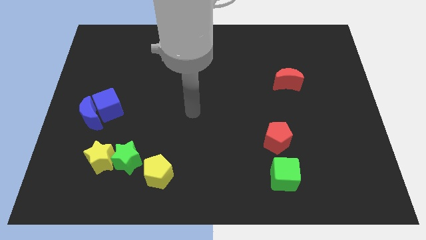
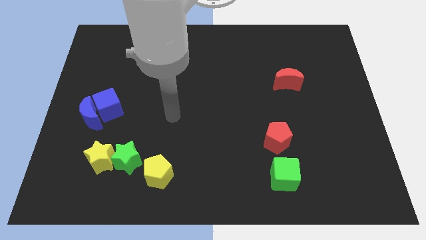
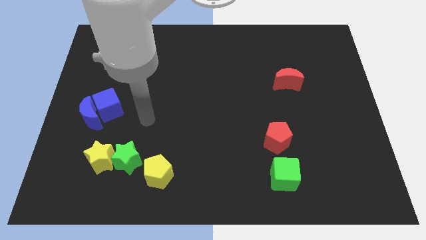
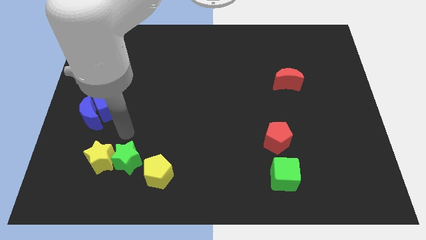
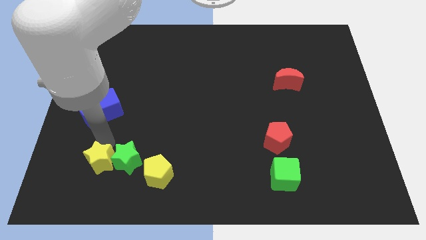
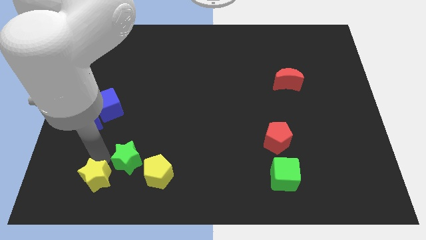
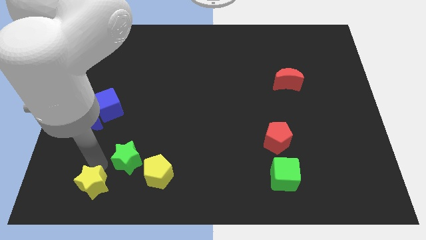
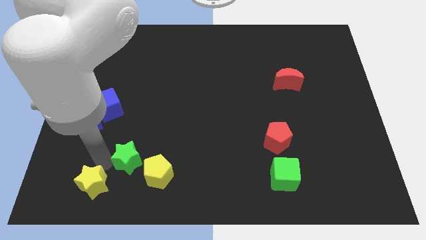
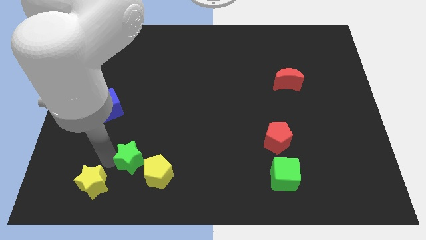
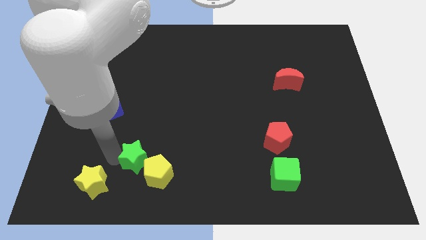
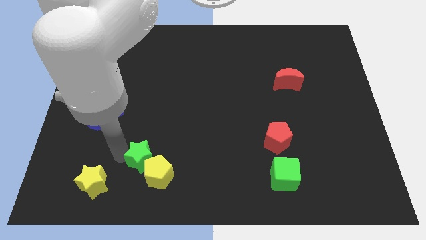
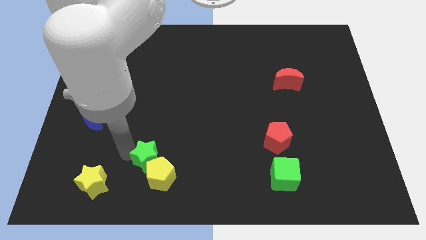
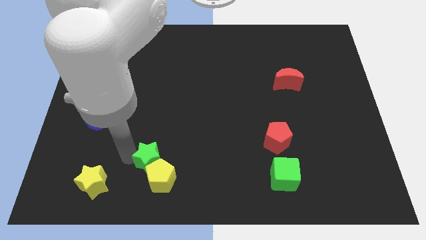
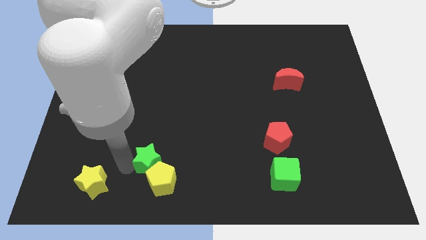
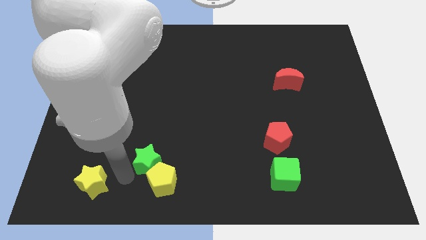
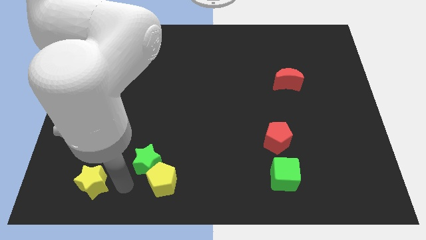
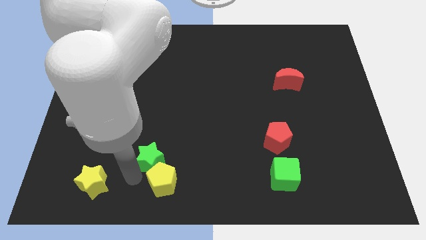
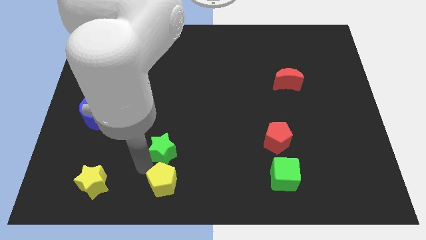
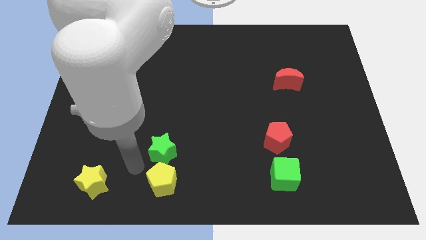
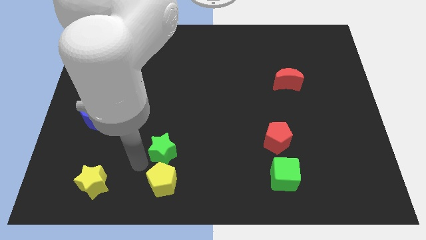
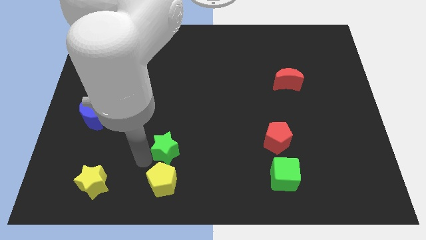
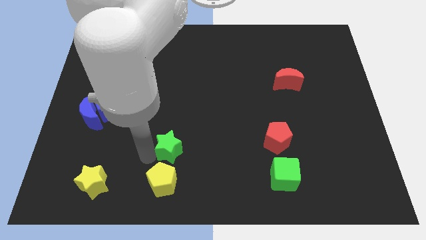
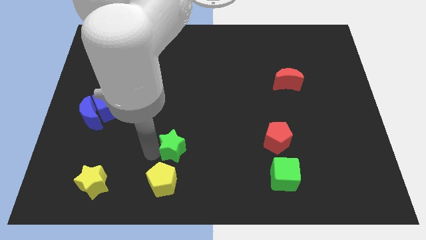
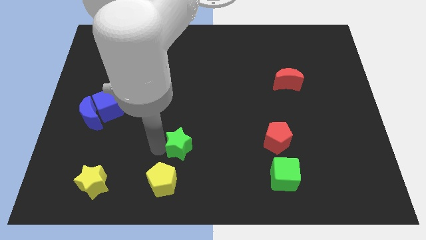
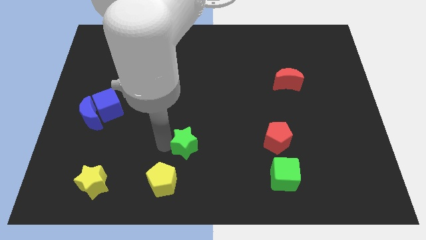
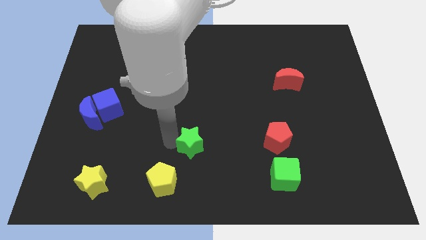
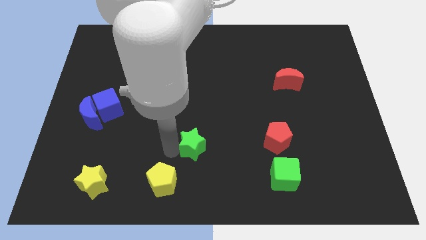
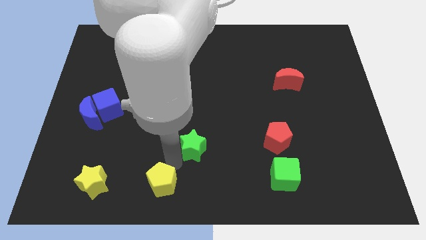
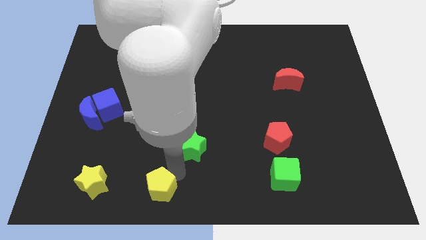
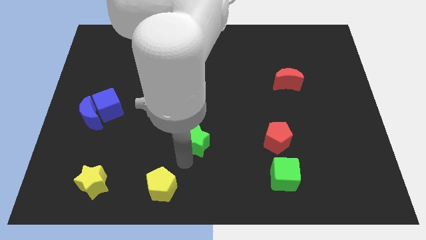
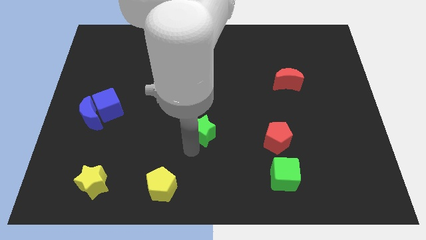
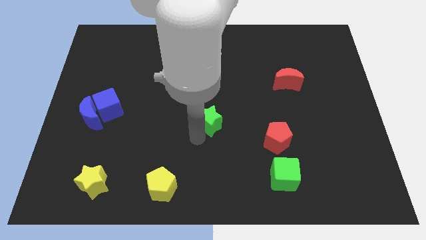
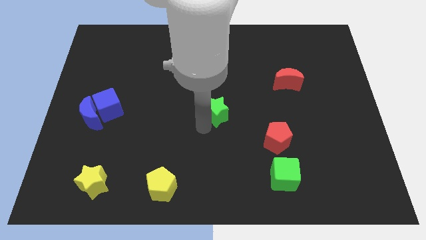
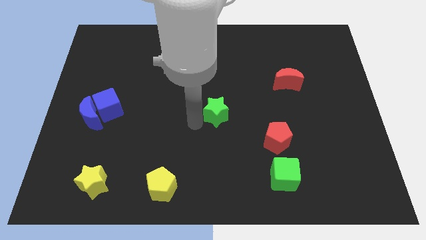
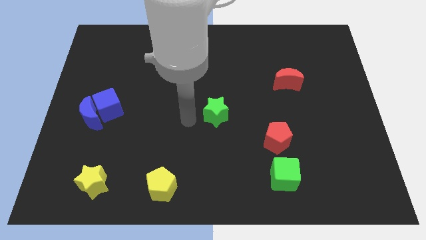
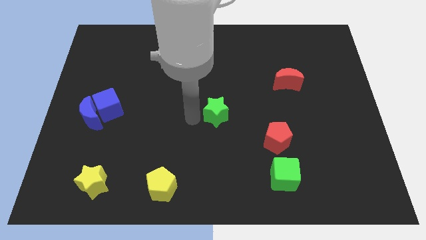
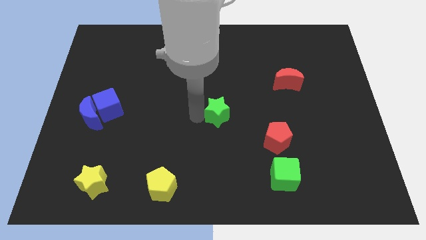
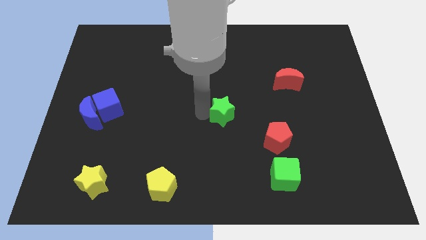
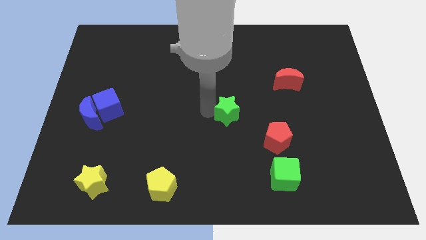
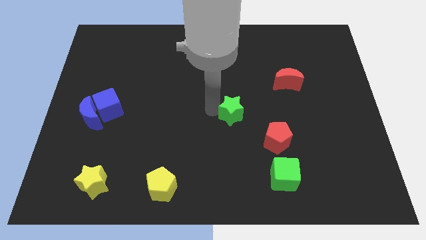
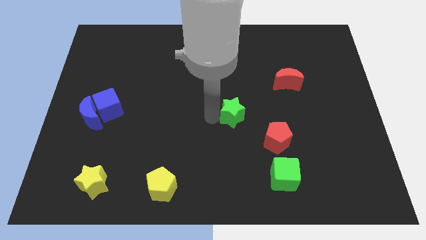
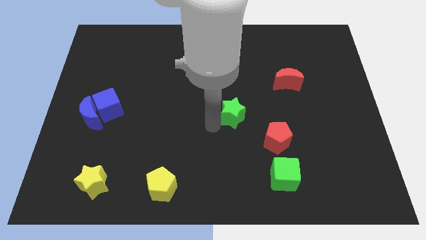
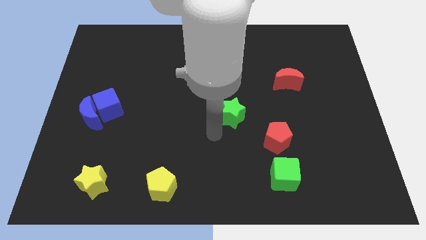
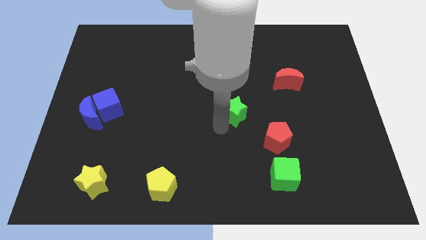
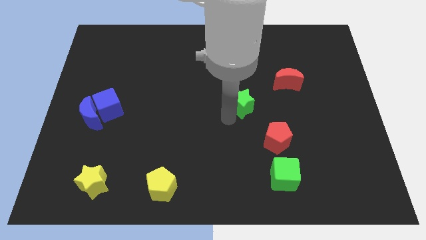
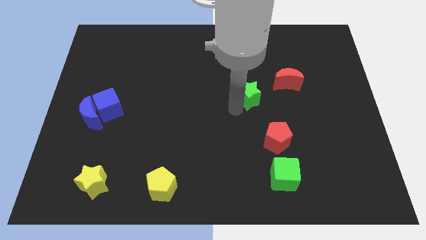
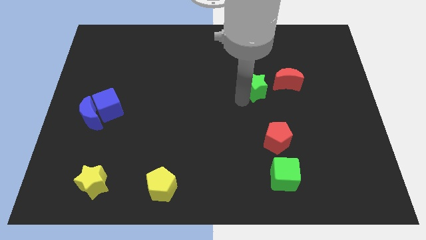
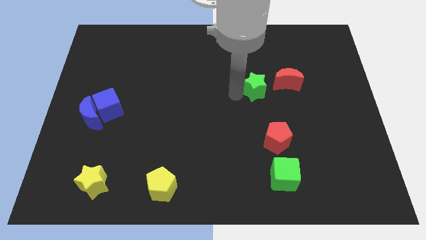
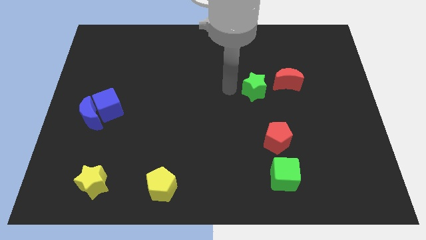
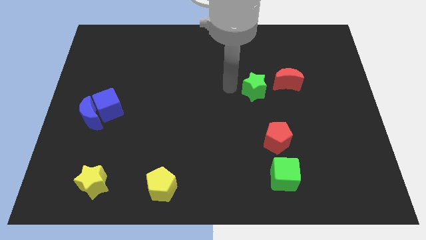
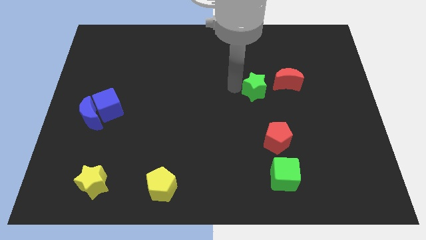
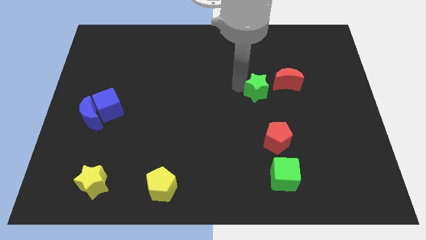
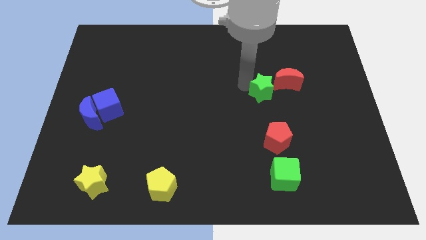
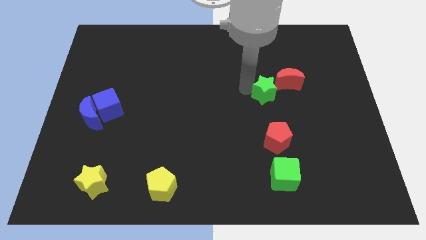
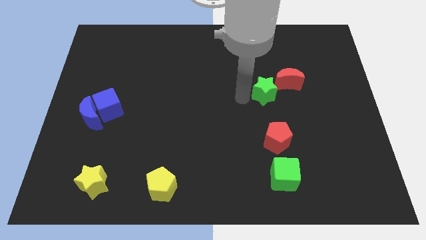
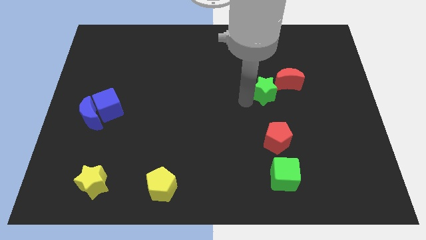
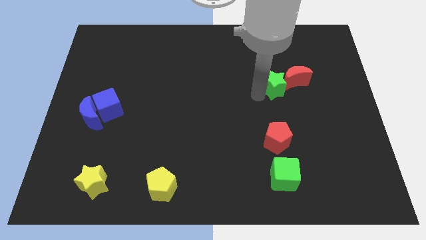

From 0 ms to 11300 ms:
push the green star towards the red moon

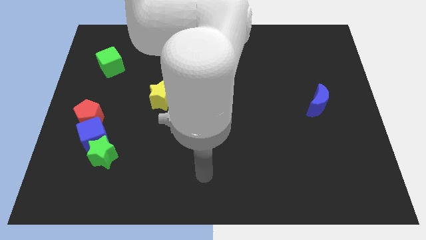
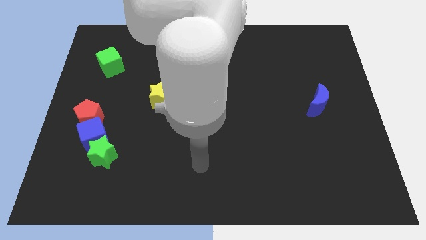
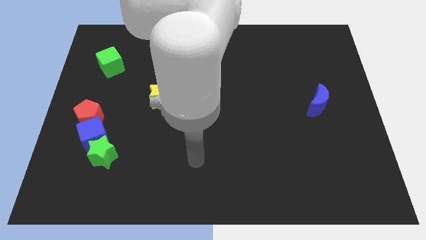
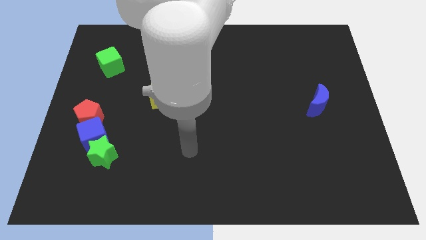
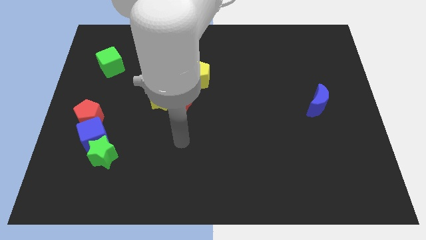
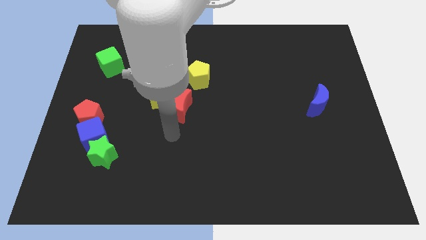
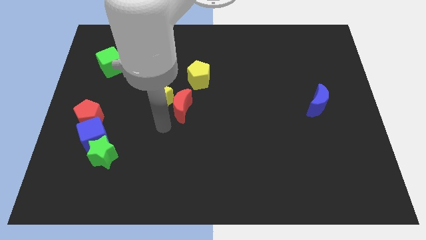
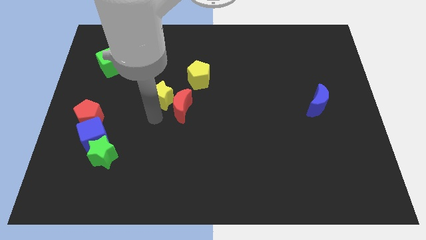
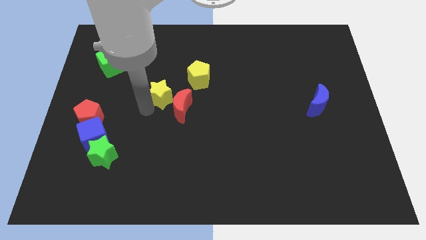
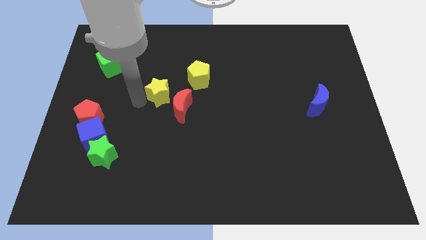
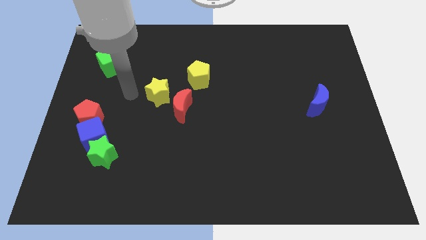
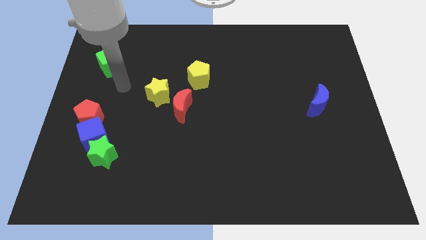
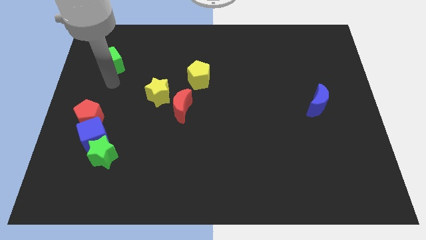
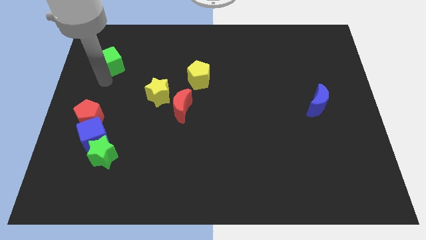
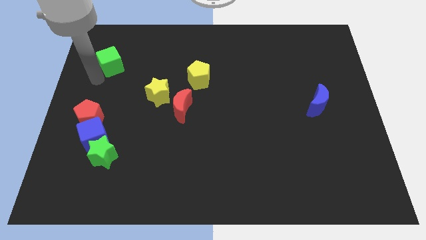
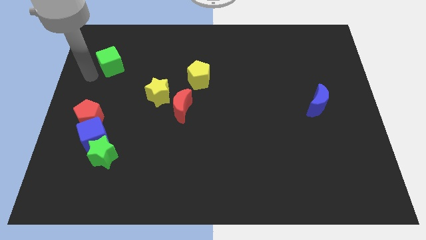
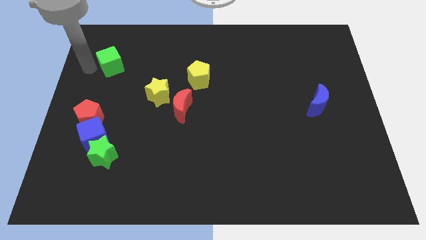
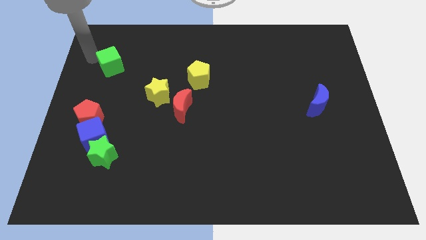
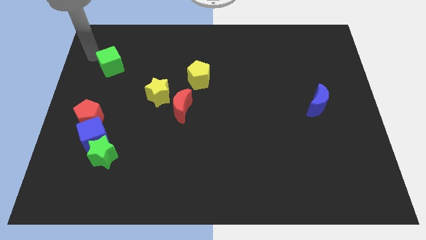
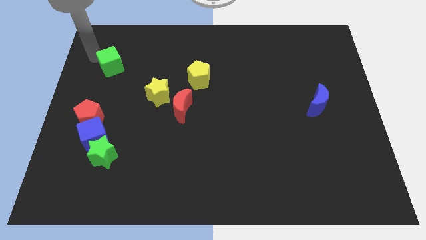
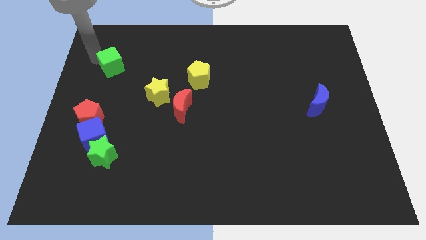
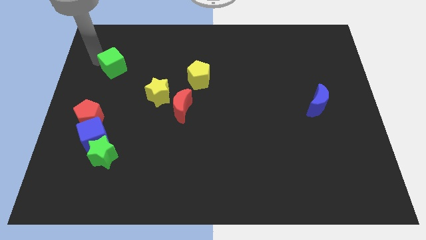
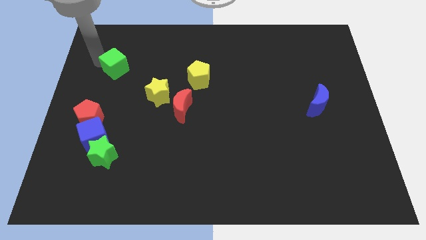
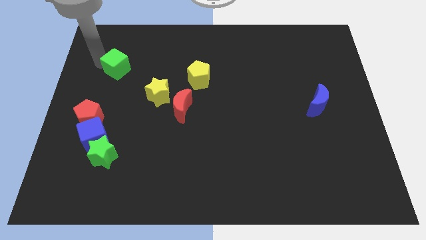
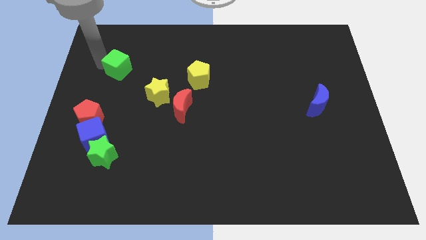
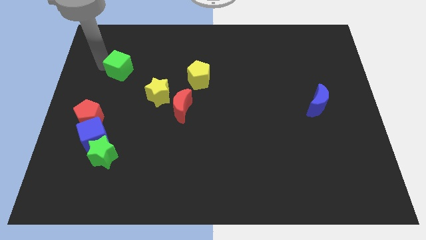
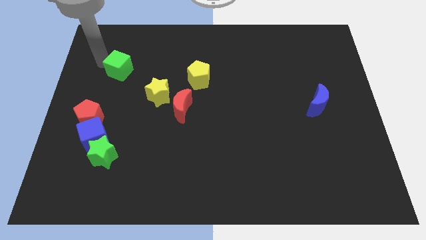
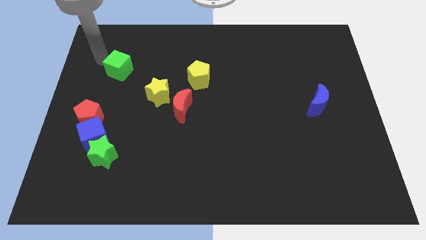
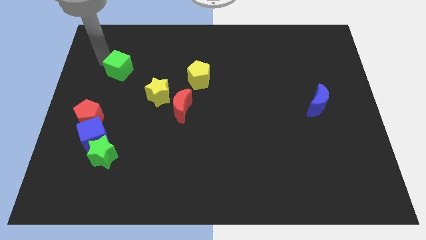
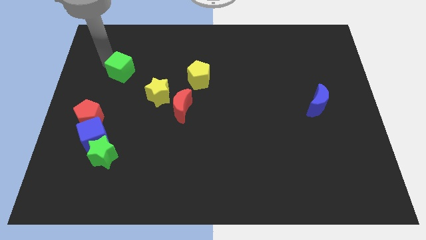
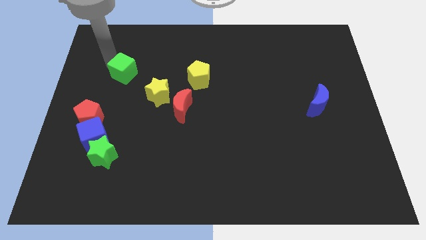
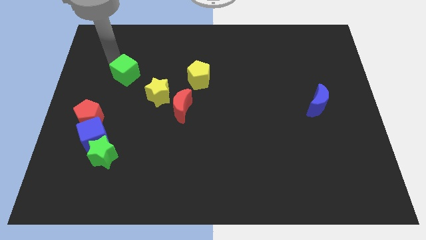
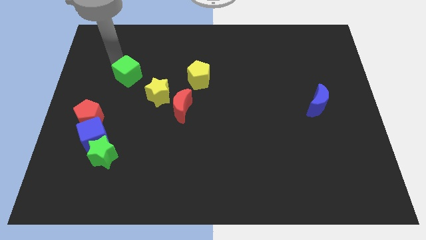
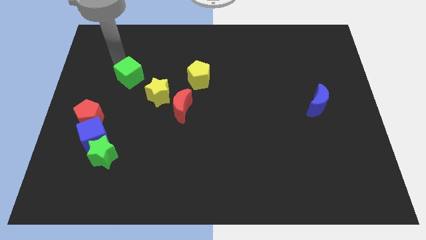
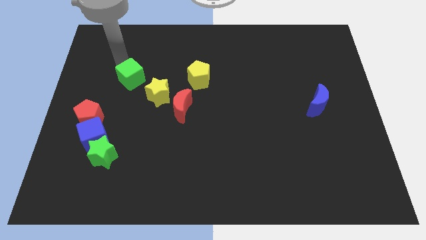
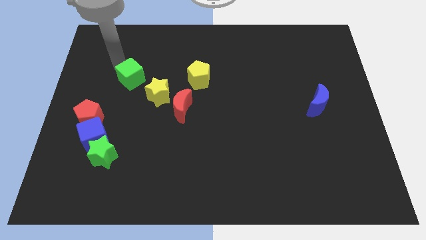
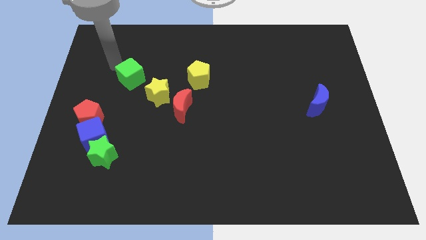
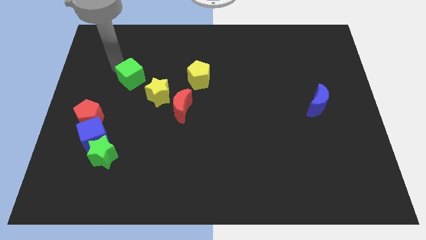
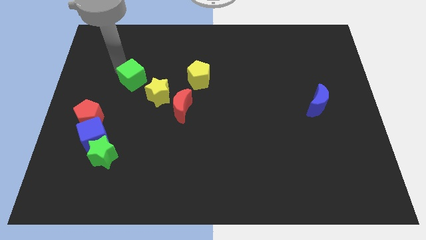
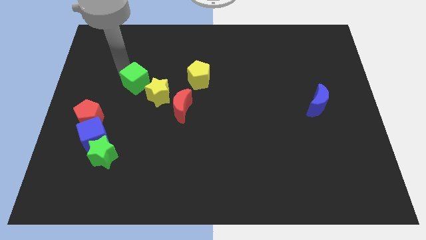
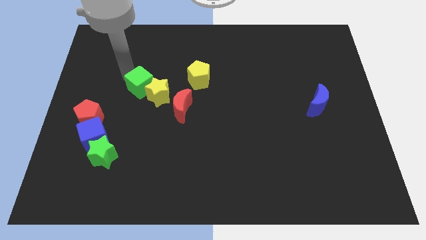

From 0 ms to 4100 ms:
slide the green cube to the yellow star
